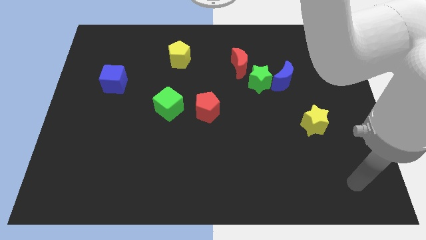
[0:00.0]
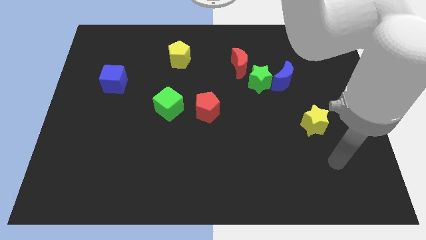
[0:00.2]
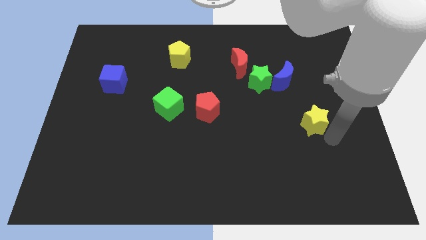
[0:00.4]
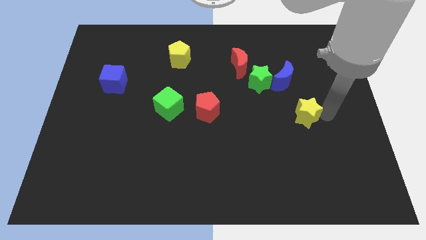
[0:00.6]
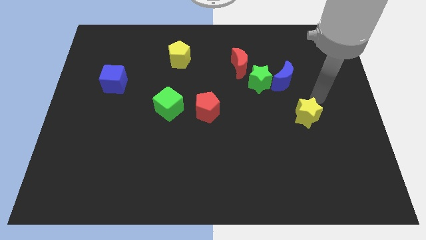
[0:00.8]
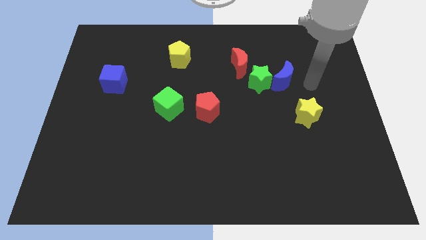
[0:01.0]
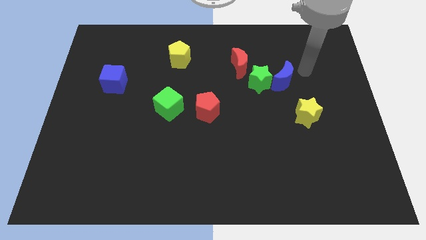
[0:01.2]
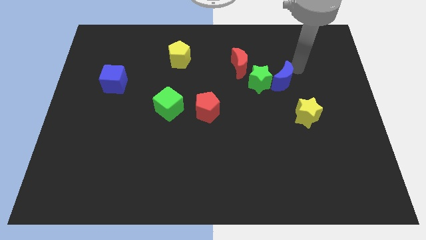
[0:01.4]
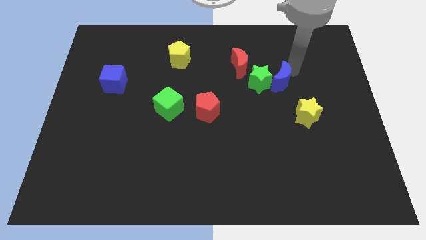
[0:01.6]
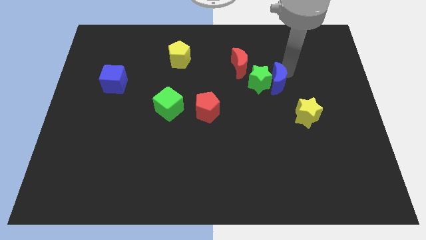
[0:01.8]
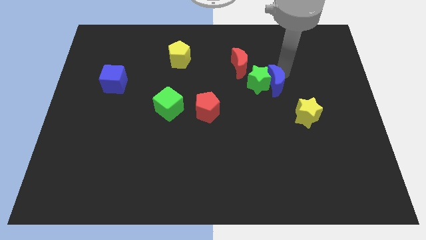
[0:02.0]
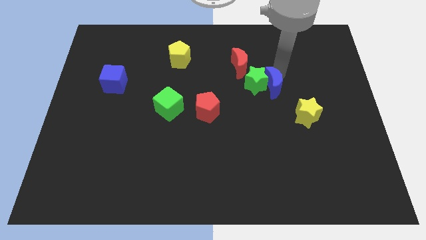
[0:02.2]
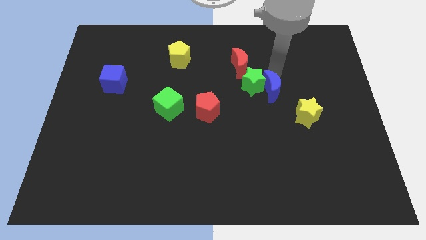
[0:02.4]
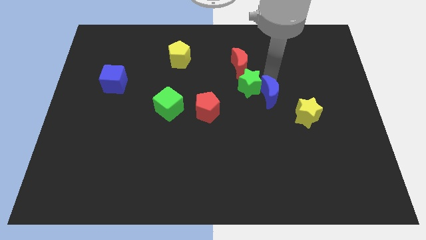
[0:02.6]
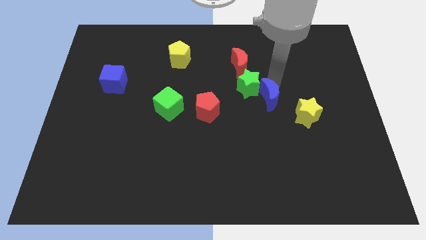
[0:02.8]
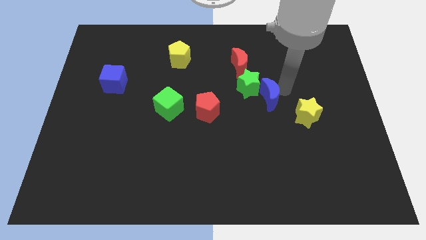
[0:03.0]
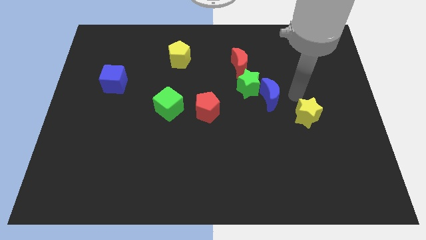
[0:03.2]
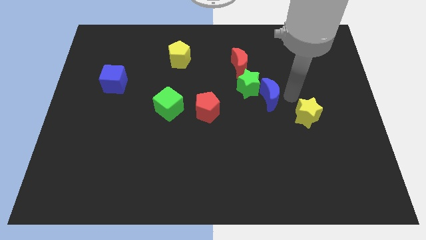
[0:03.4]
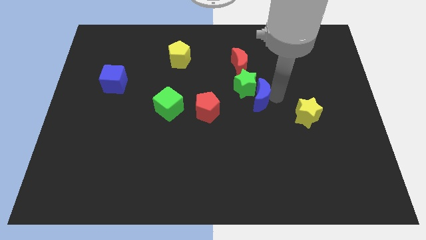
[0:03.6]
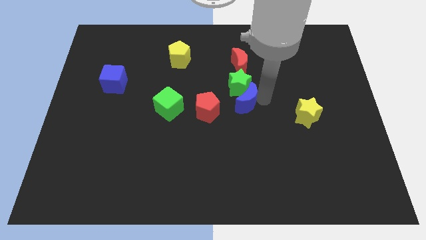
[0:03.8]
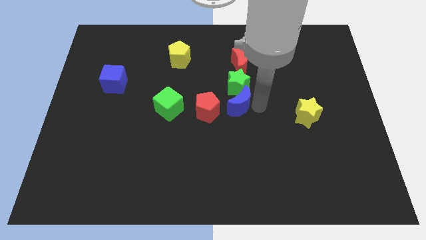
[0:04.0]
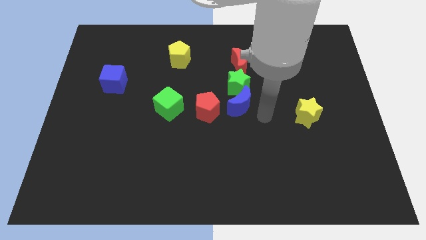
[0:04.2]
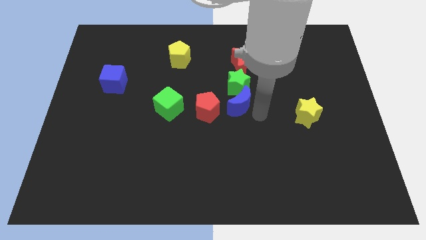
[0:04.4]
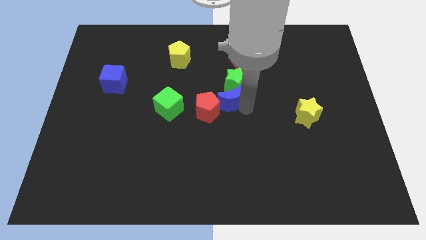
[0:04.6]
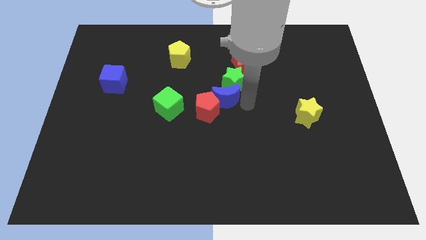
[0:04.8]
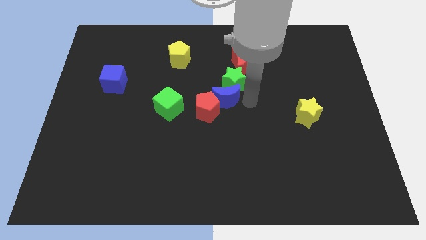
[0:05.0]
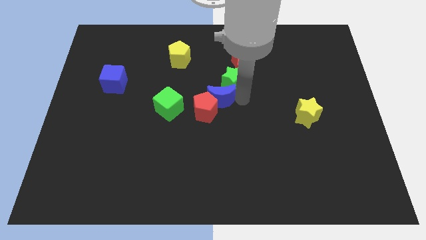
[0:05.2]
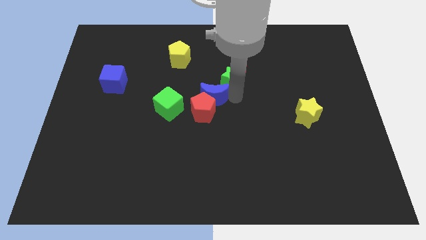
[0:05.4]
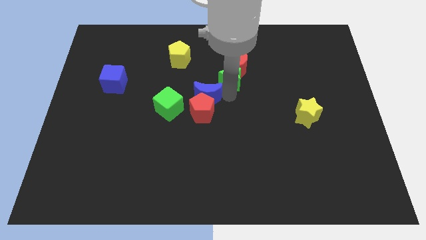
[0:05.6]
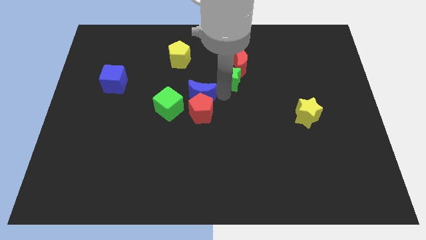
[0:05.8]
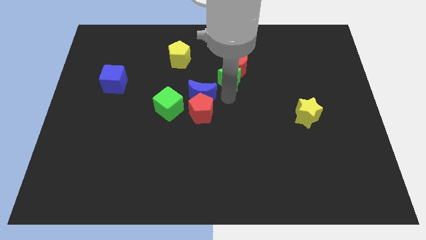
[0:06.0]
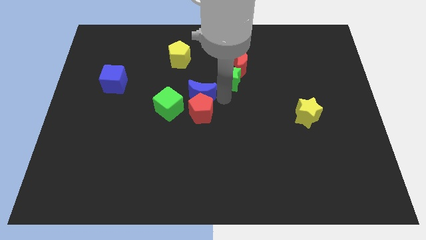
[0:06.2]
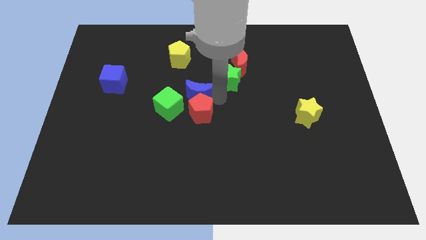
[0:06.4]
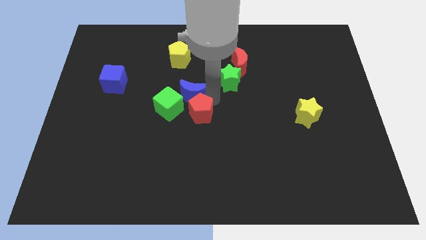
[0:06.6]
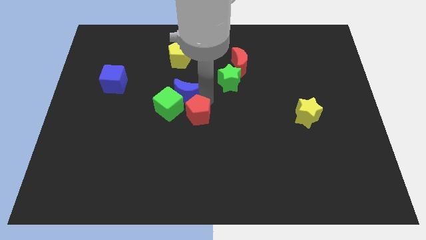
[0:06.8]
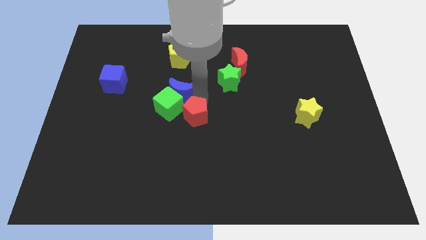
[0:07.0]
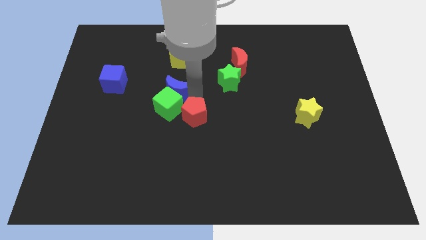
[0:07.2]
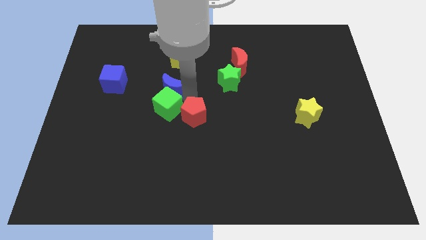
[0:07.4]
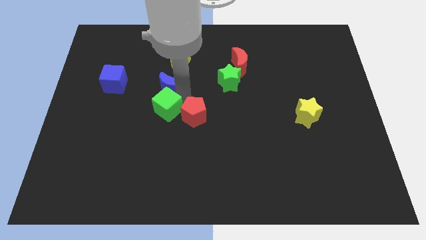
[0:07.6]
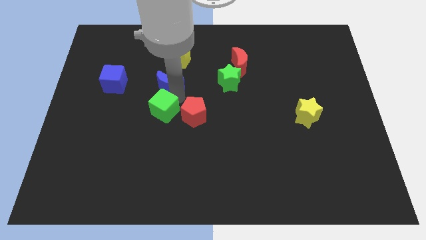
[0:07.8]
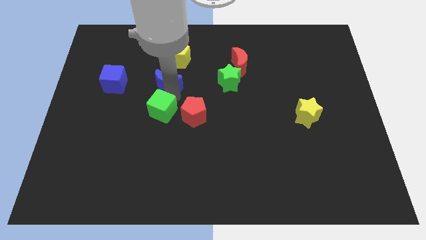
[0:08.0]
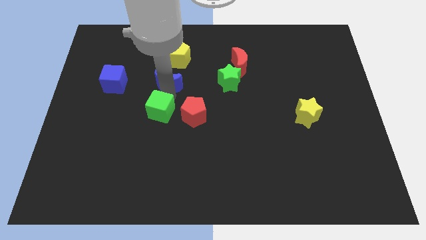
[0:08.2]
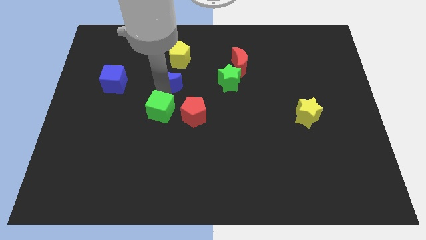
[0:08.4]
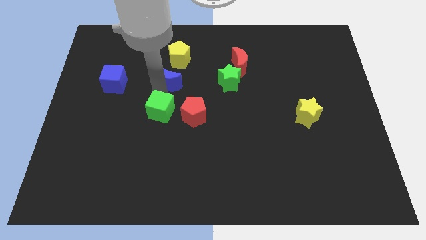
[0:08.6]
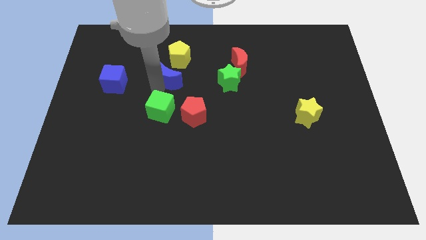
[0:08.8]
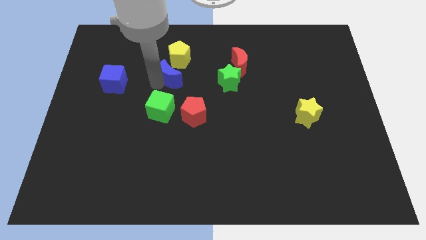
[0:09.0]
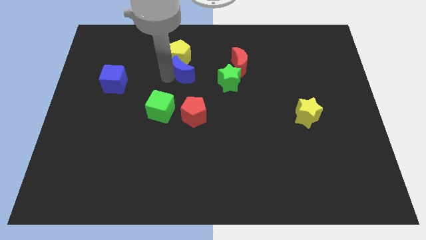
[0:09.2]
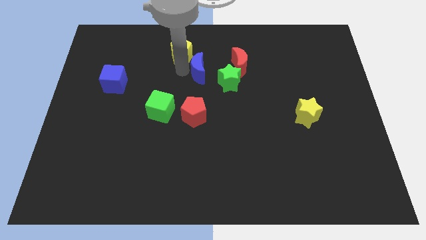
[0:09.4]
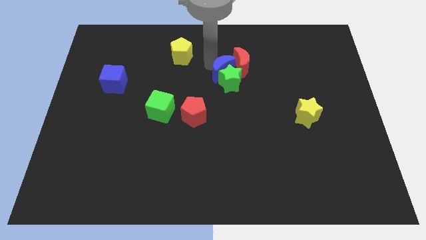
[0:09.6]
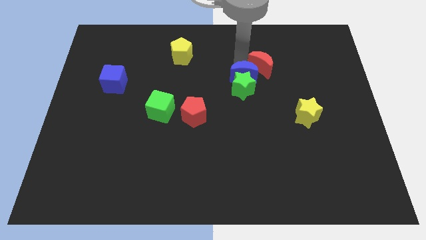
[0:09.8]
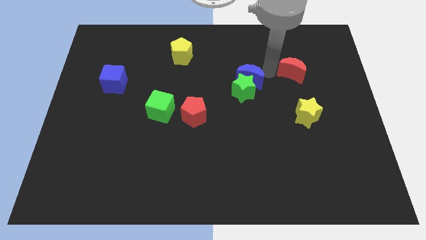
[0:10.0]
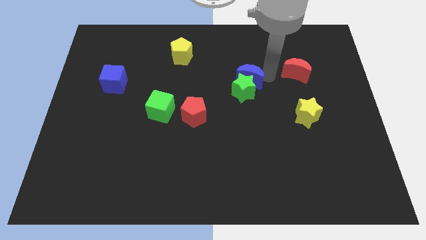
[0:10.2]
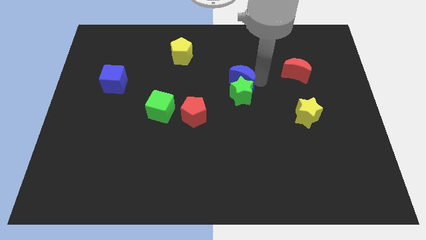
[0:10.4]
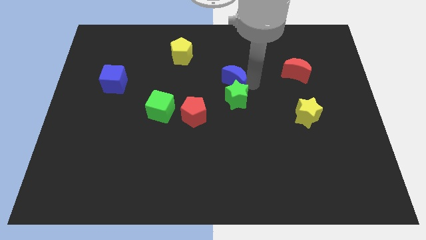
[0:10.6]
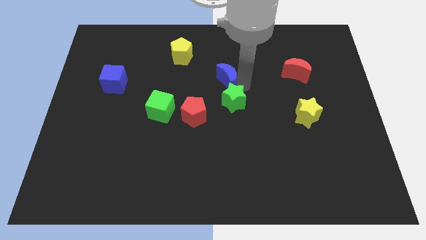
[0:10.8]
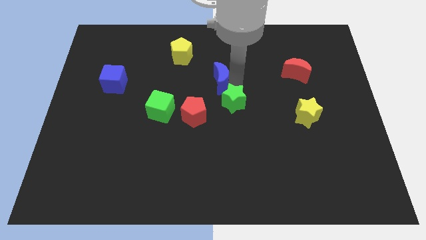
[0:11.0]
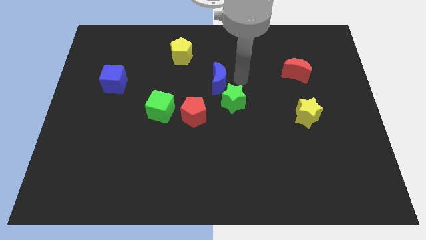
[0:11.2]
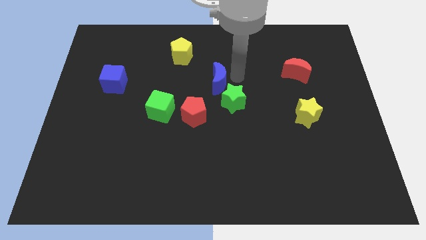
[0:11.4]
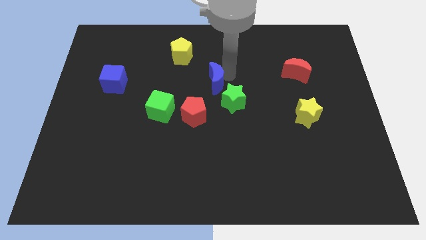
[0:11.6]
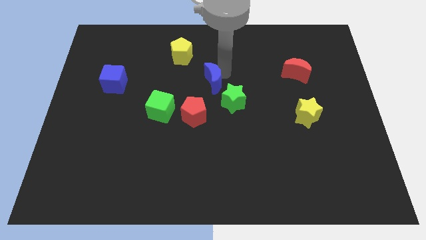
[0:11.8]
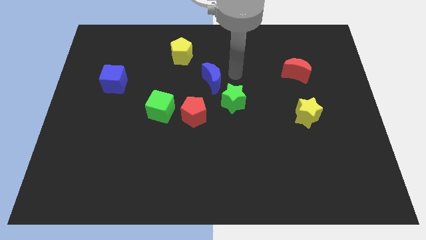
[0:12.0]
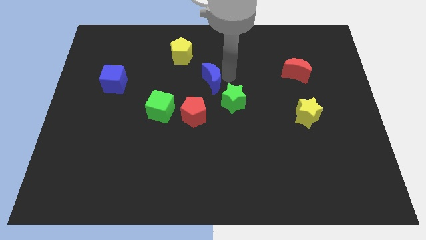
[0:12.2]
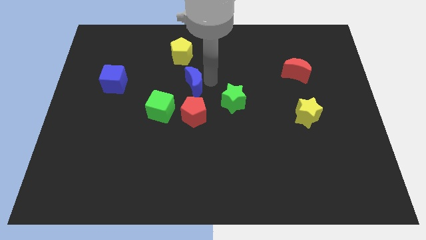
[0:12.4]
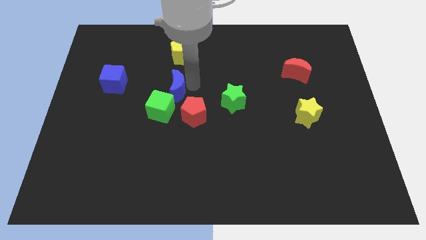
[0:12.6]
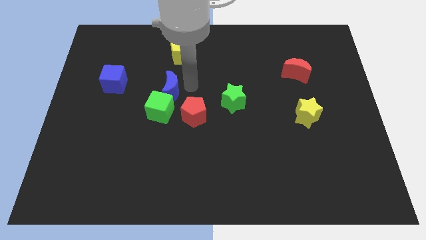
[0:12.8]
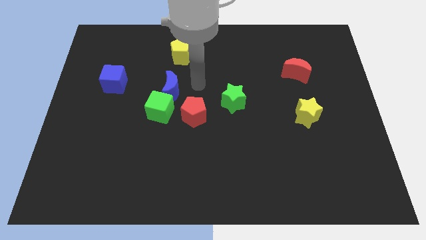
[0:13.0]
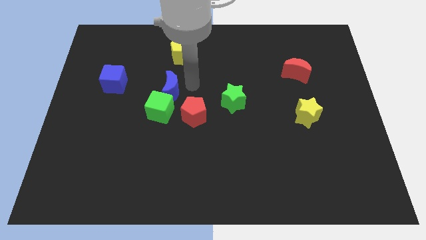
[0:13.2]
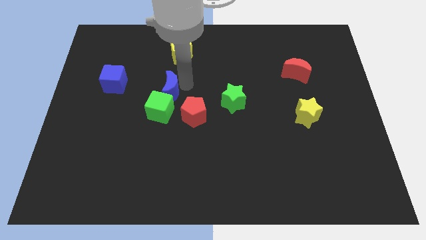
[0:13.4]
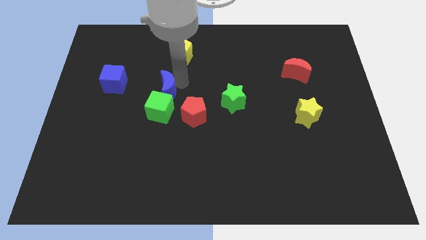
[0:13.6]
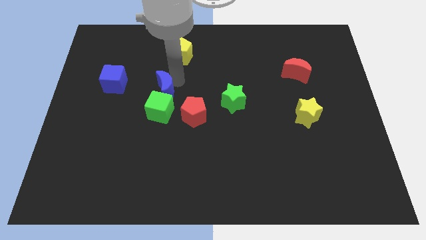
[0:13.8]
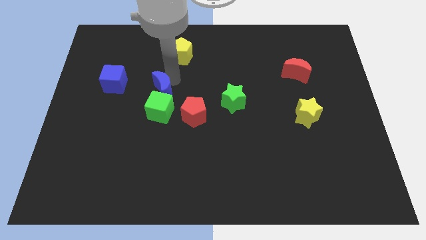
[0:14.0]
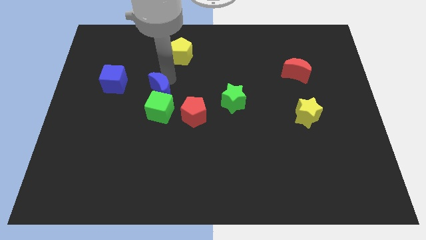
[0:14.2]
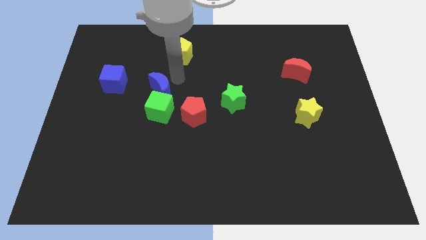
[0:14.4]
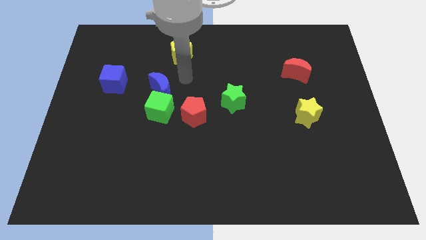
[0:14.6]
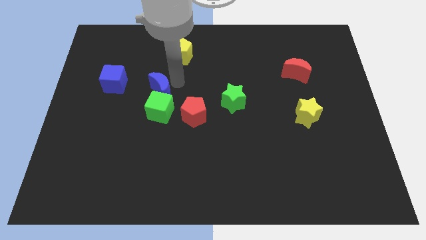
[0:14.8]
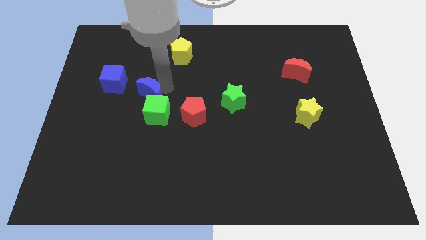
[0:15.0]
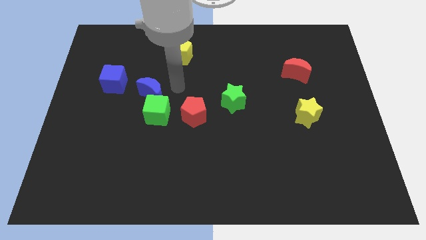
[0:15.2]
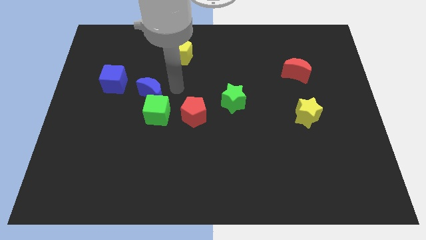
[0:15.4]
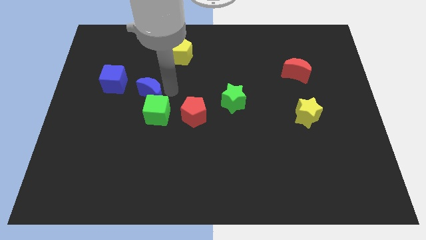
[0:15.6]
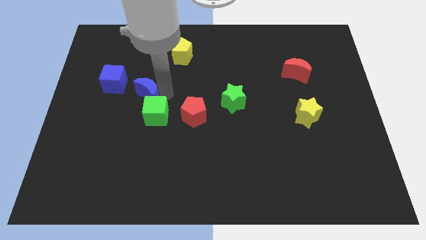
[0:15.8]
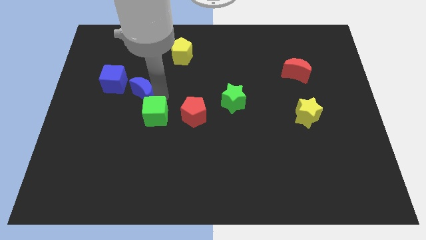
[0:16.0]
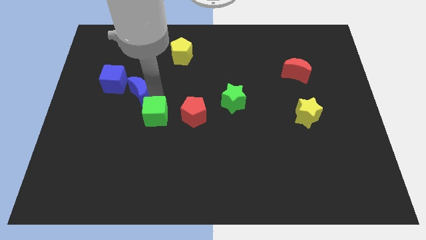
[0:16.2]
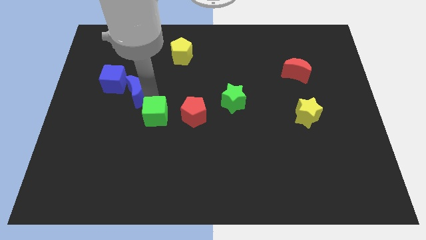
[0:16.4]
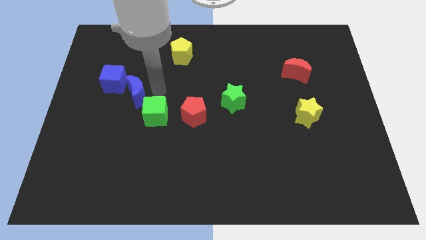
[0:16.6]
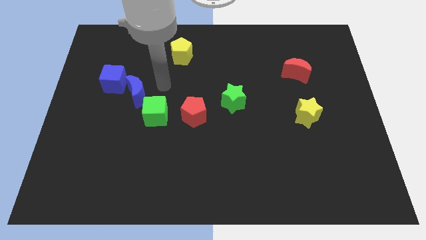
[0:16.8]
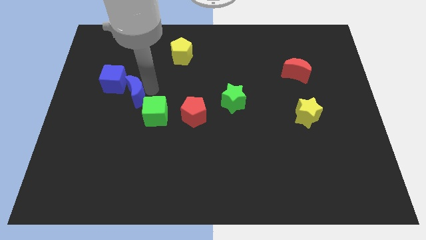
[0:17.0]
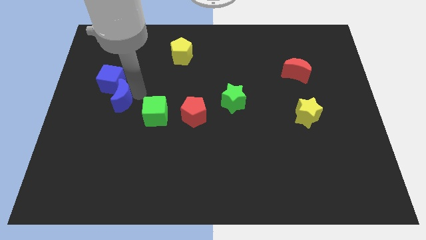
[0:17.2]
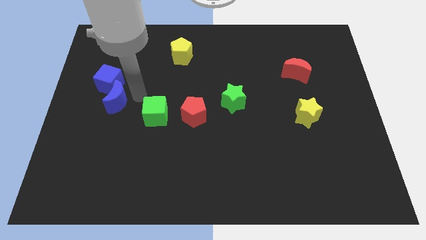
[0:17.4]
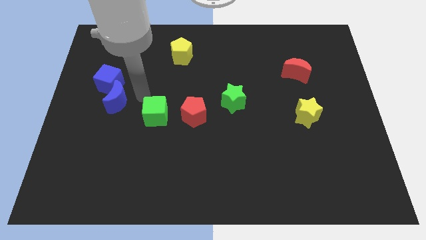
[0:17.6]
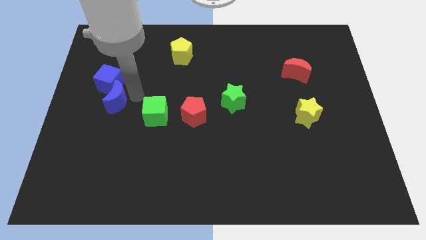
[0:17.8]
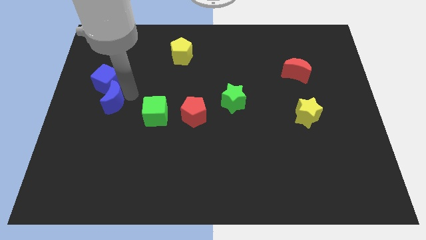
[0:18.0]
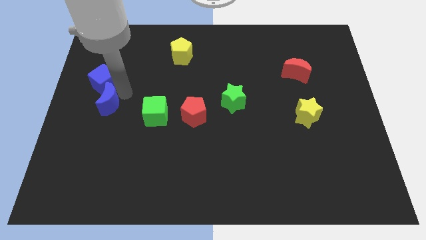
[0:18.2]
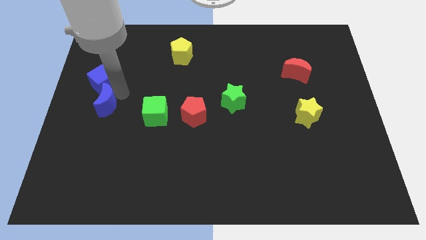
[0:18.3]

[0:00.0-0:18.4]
slide the blue moon to the left side of the board
